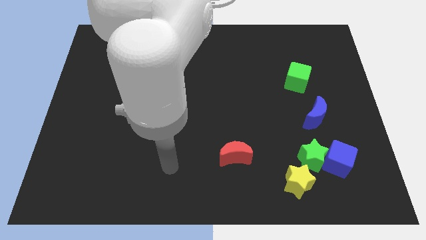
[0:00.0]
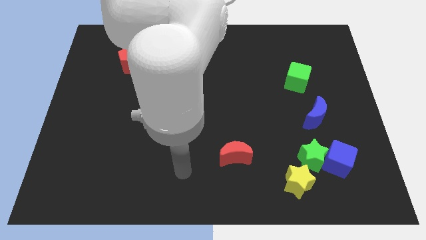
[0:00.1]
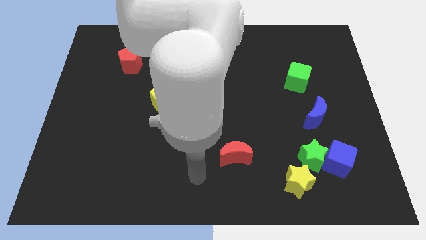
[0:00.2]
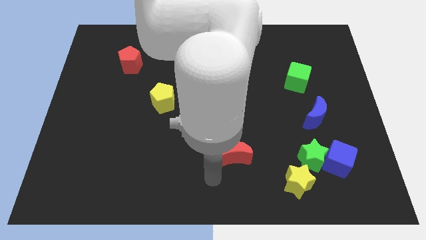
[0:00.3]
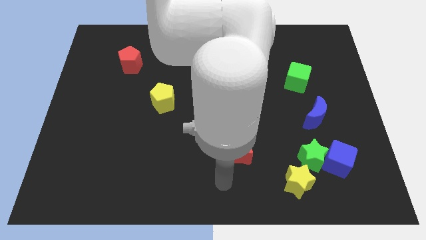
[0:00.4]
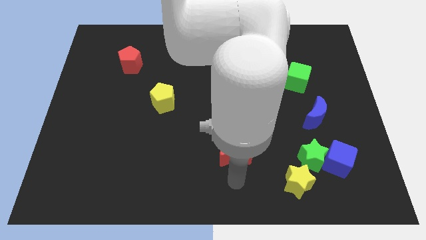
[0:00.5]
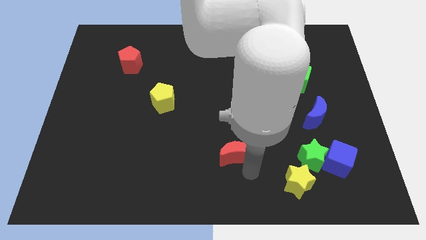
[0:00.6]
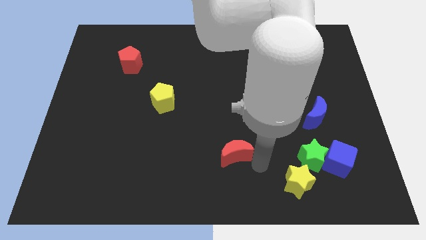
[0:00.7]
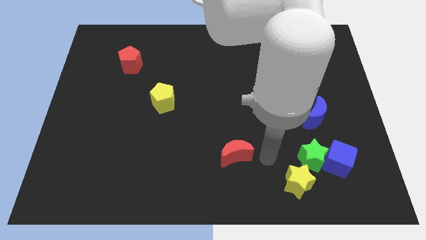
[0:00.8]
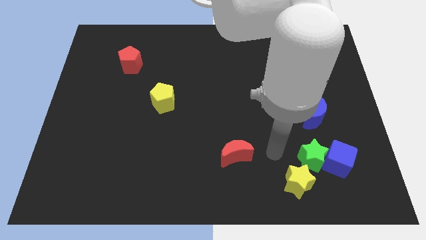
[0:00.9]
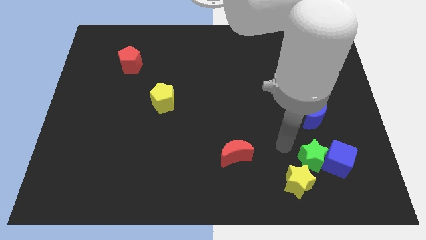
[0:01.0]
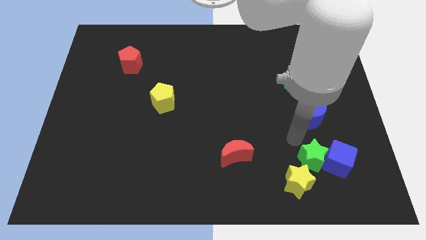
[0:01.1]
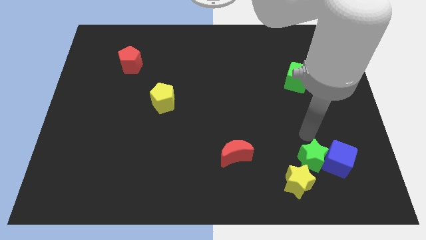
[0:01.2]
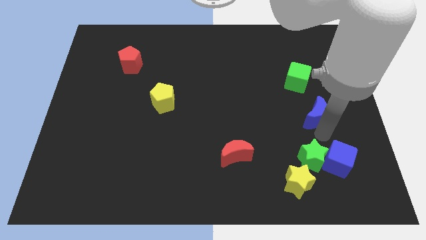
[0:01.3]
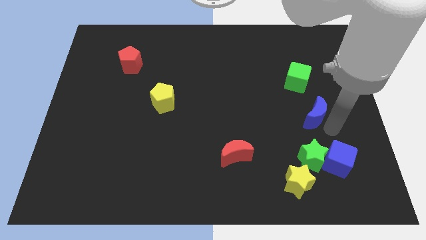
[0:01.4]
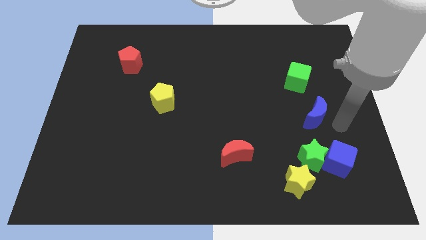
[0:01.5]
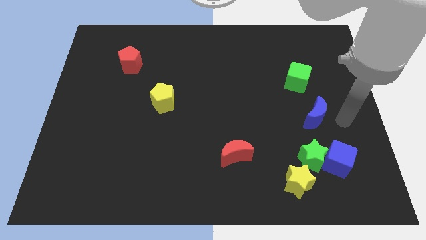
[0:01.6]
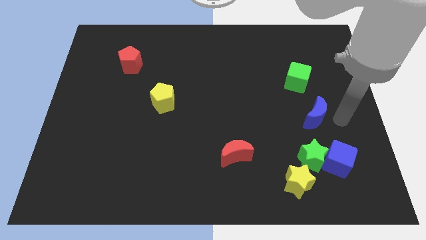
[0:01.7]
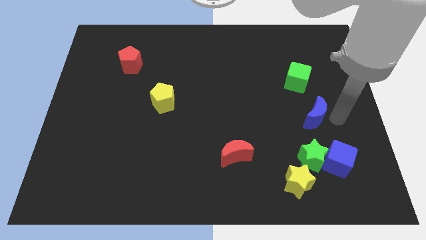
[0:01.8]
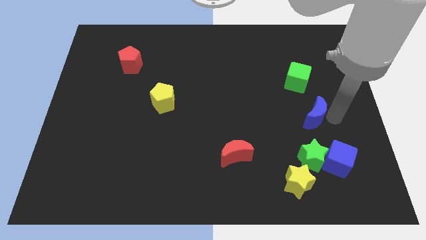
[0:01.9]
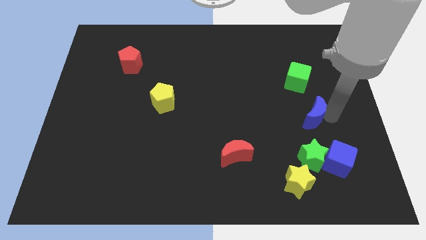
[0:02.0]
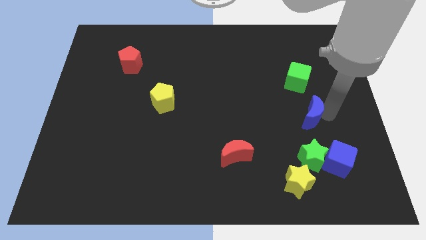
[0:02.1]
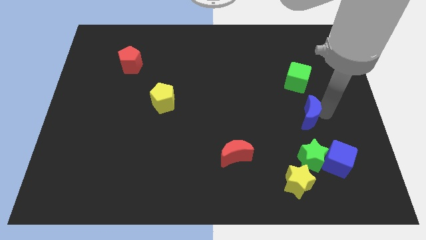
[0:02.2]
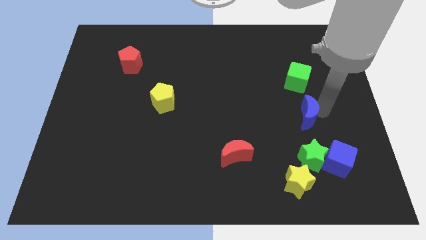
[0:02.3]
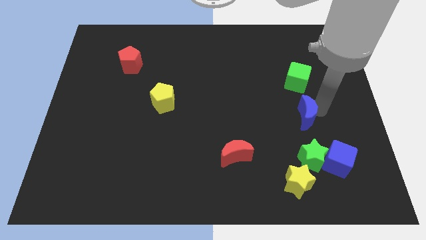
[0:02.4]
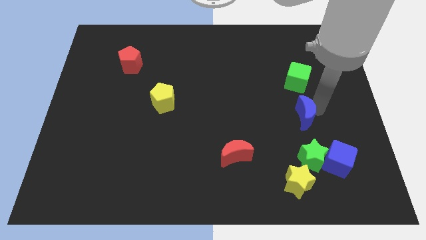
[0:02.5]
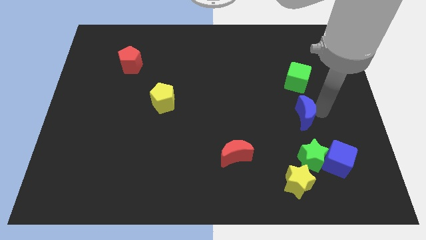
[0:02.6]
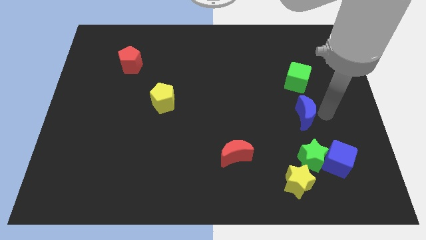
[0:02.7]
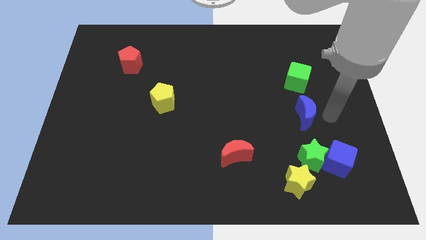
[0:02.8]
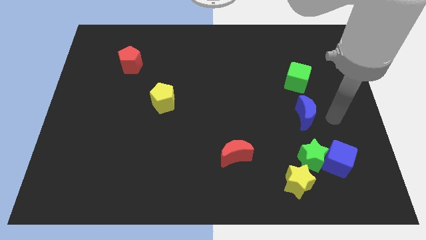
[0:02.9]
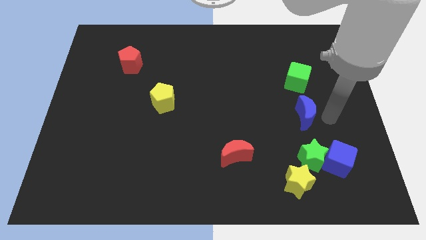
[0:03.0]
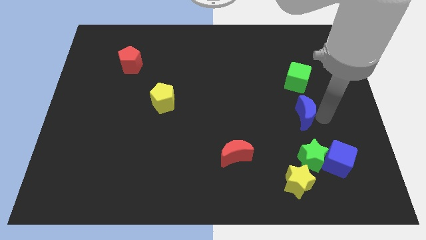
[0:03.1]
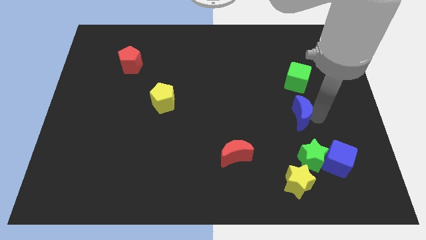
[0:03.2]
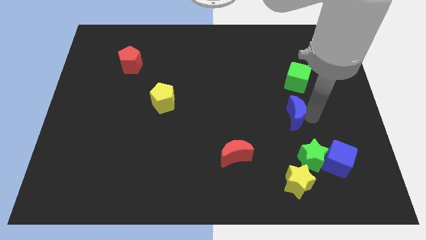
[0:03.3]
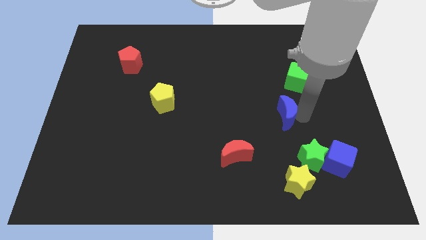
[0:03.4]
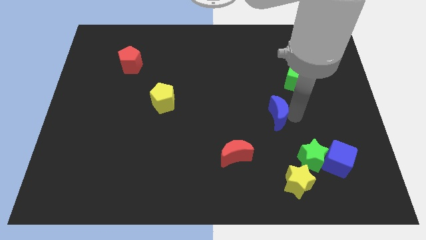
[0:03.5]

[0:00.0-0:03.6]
push the blue moon slightly to the left

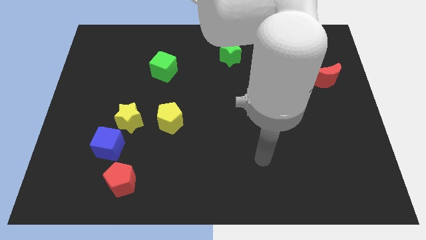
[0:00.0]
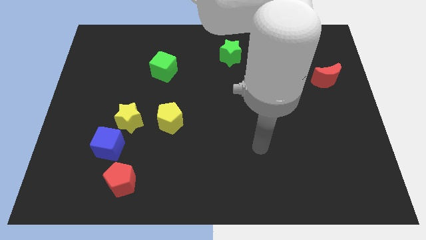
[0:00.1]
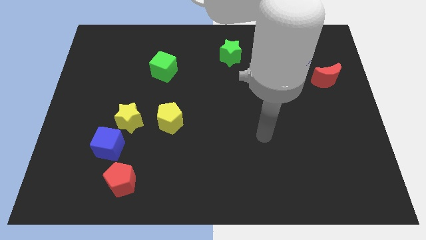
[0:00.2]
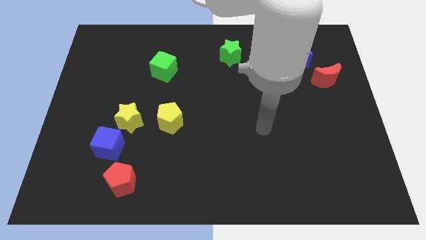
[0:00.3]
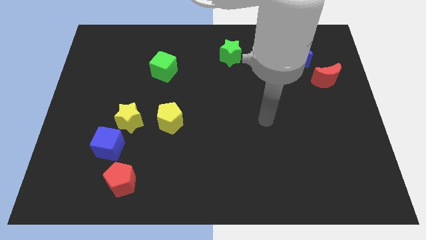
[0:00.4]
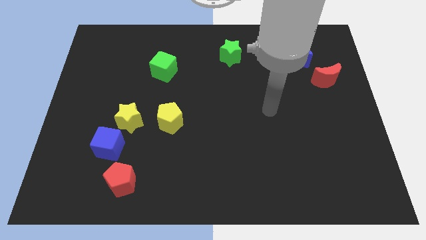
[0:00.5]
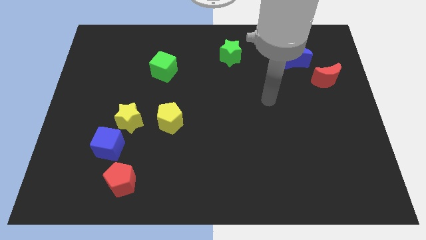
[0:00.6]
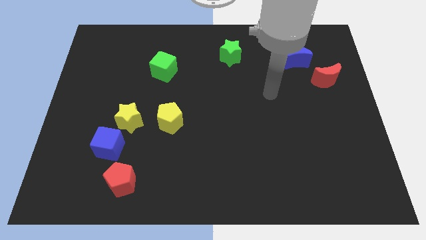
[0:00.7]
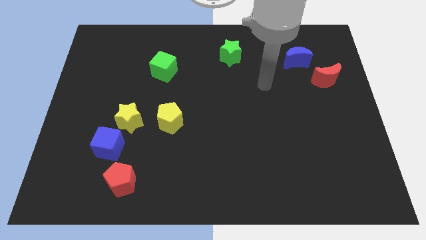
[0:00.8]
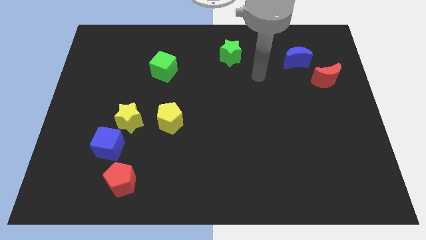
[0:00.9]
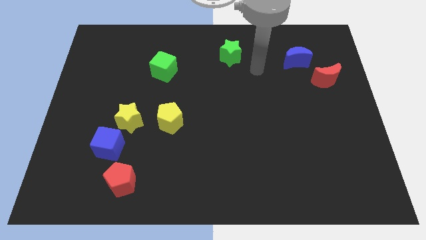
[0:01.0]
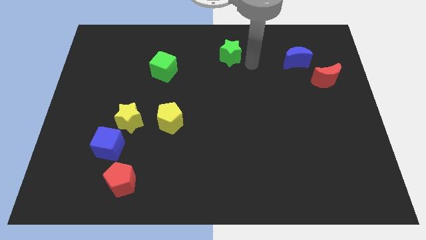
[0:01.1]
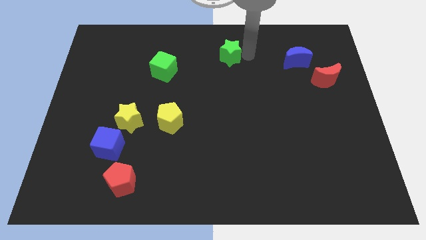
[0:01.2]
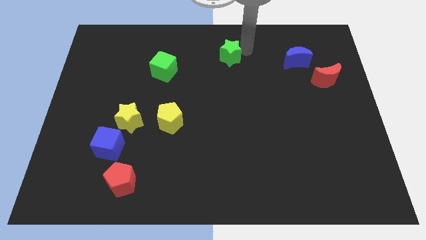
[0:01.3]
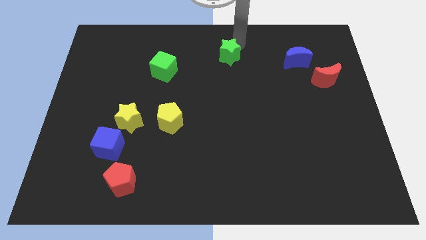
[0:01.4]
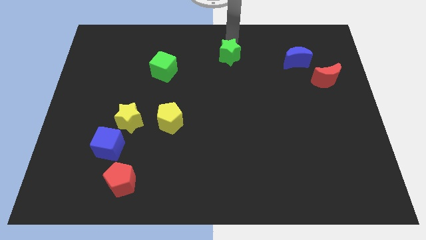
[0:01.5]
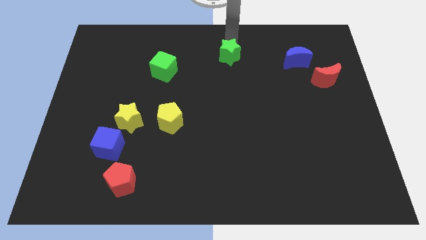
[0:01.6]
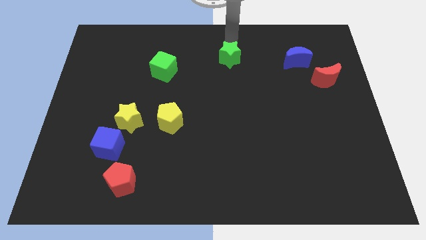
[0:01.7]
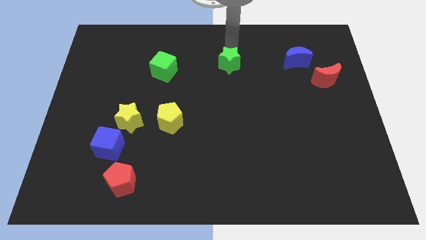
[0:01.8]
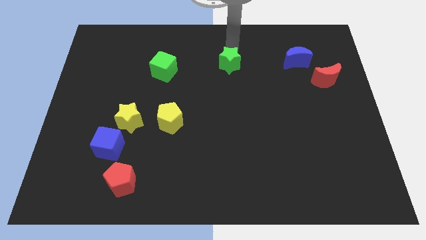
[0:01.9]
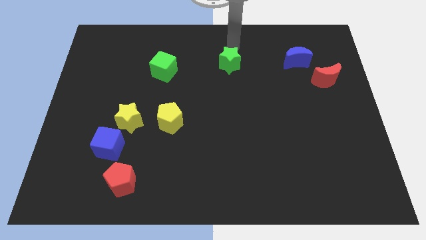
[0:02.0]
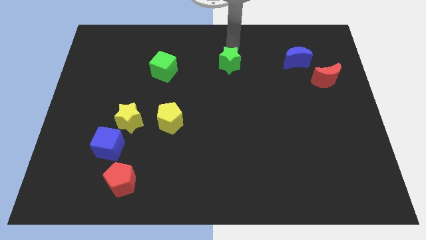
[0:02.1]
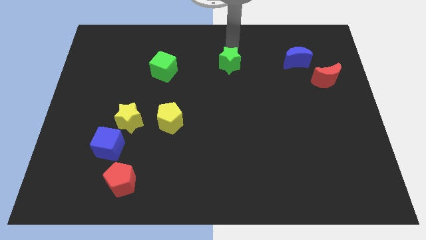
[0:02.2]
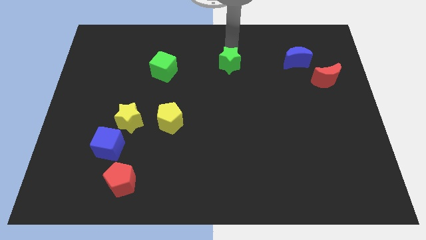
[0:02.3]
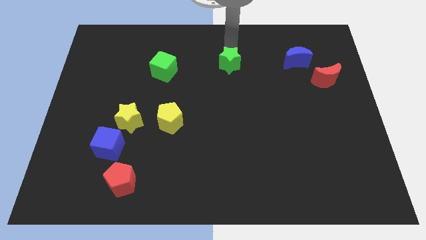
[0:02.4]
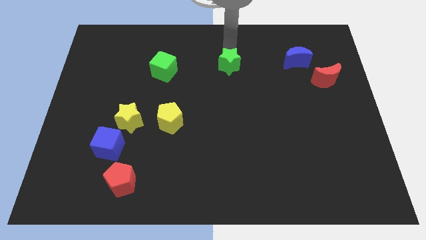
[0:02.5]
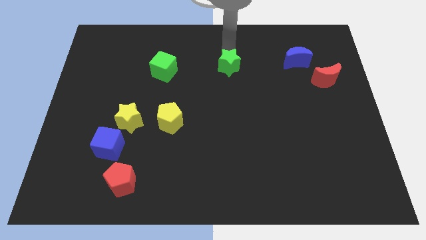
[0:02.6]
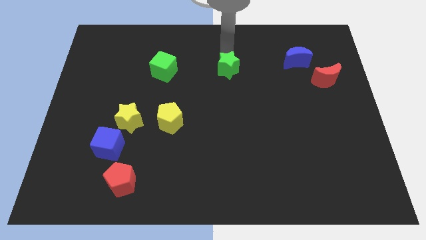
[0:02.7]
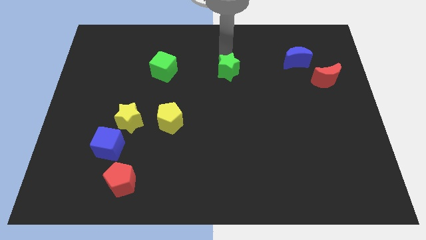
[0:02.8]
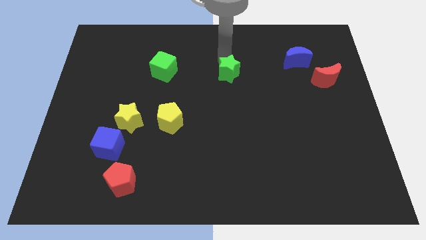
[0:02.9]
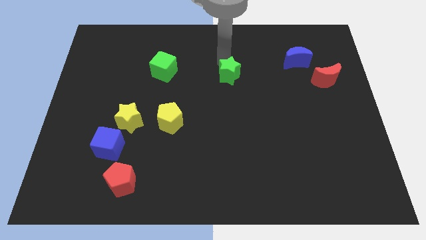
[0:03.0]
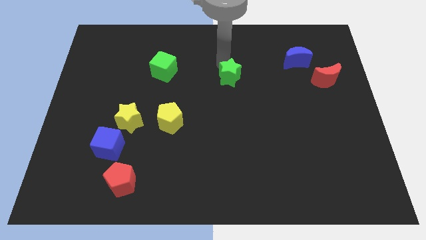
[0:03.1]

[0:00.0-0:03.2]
push the green star slightly downwards

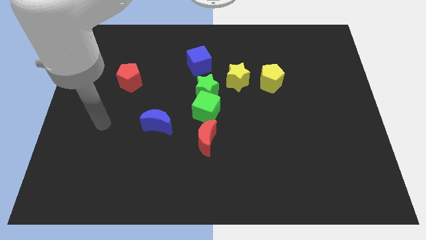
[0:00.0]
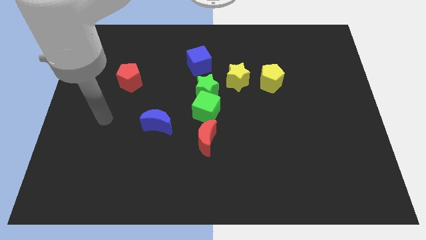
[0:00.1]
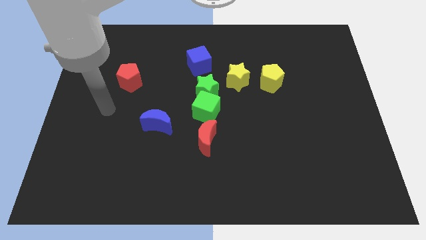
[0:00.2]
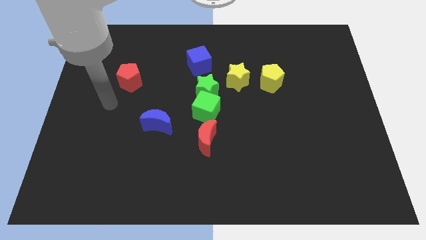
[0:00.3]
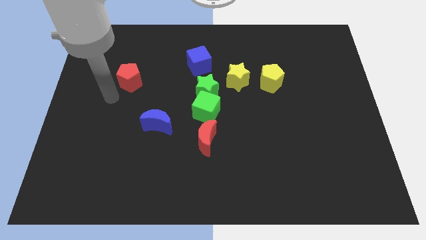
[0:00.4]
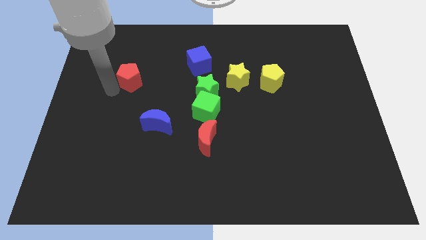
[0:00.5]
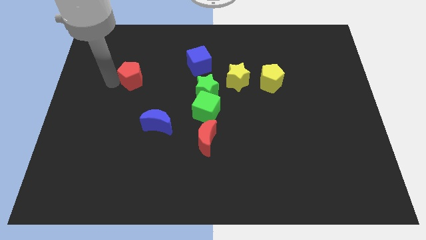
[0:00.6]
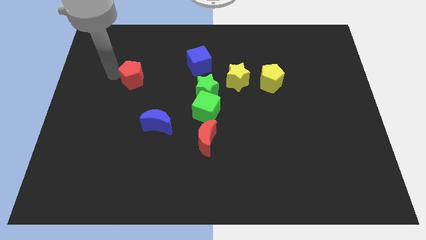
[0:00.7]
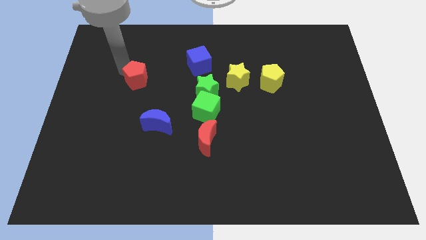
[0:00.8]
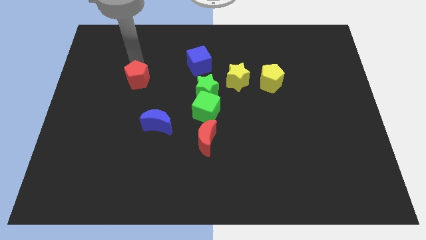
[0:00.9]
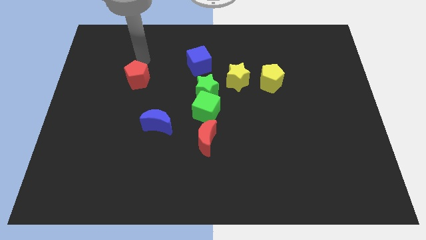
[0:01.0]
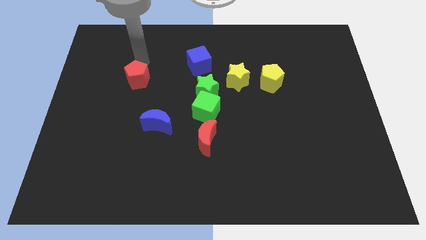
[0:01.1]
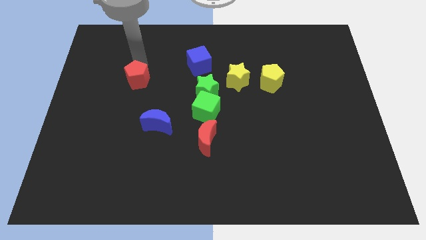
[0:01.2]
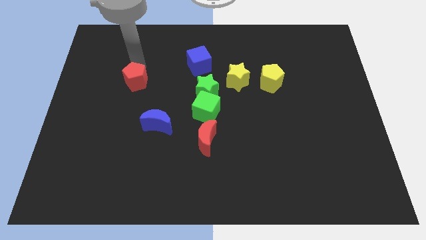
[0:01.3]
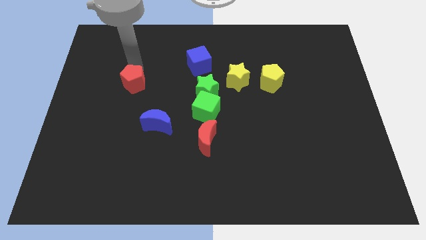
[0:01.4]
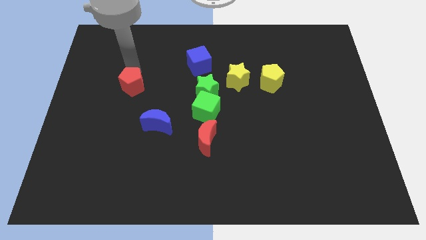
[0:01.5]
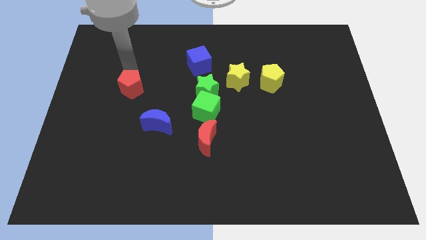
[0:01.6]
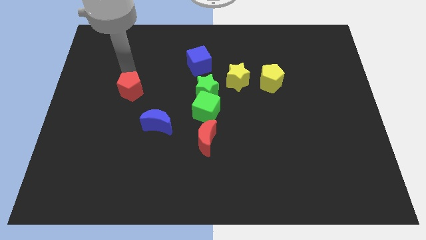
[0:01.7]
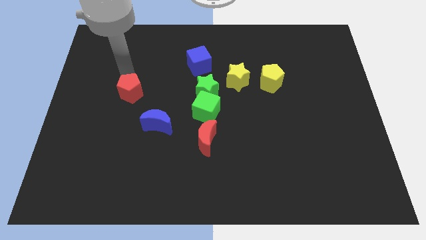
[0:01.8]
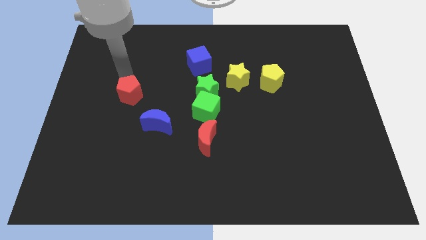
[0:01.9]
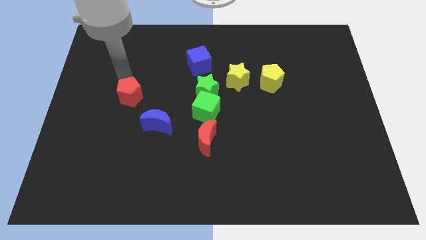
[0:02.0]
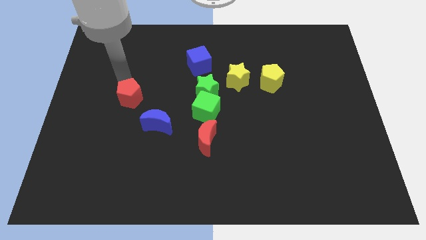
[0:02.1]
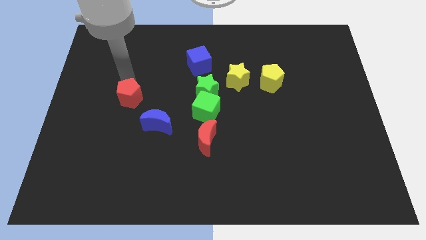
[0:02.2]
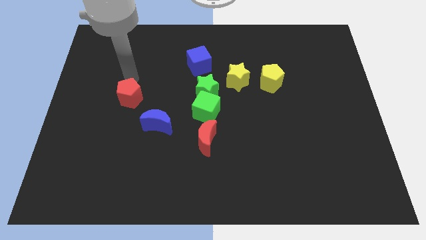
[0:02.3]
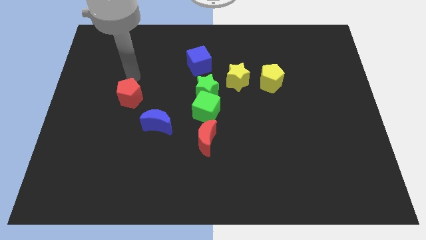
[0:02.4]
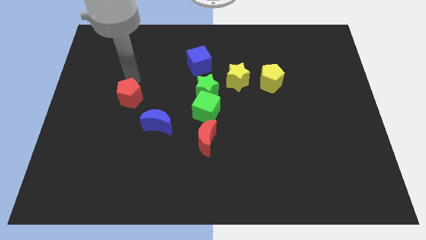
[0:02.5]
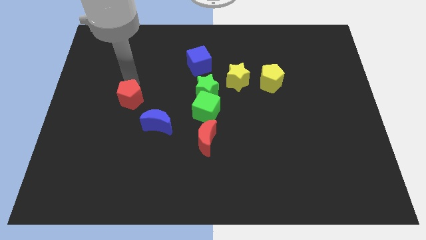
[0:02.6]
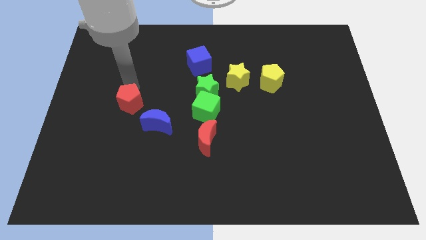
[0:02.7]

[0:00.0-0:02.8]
move the red pentagon down a little bit
